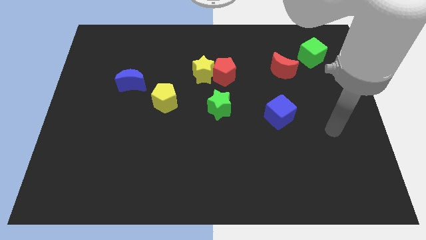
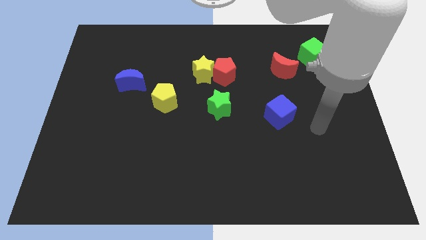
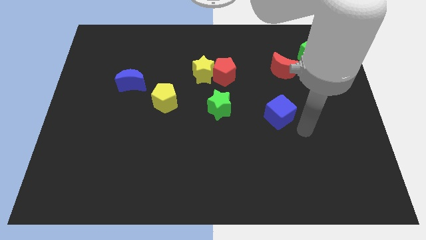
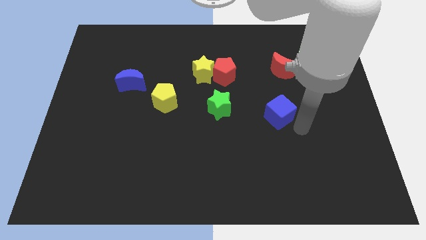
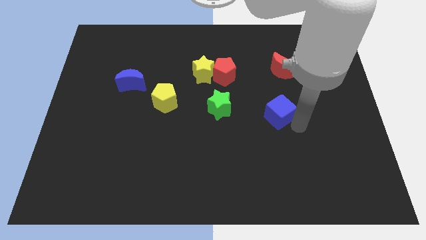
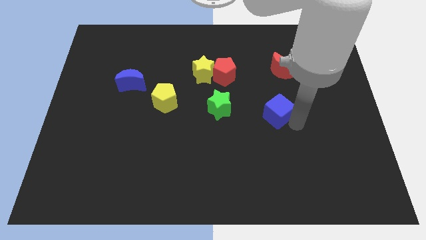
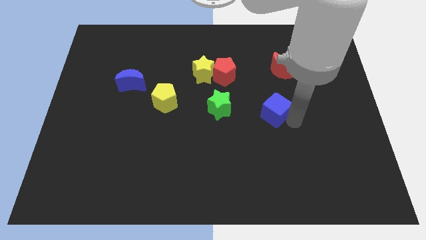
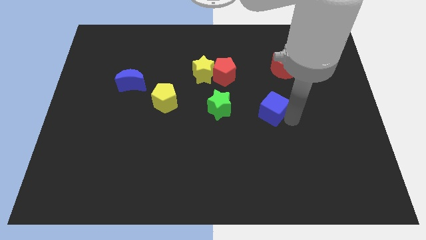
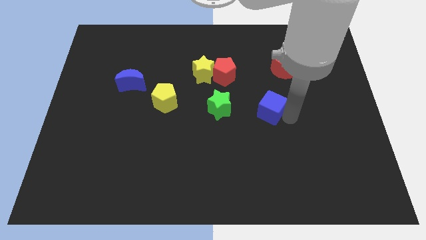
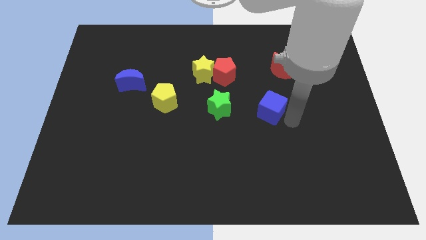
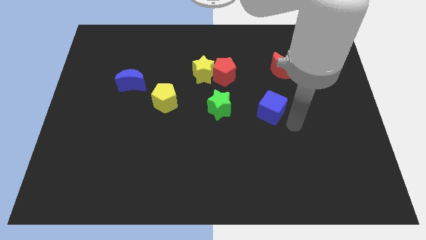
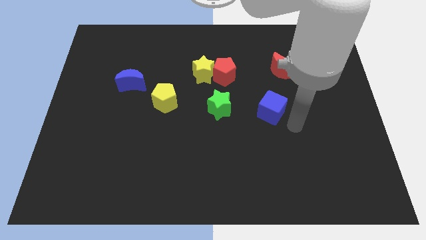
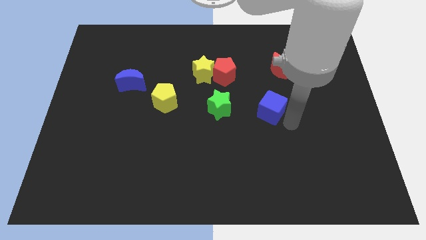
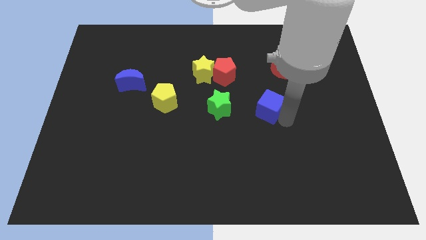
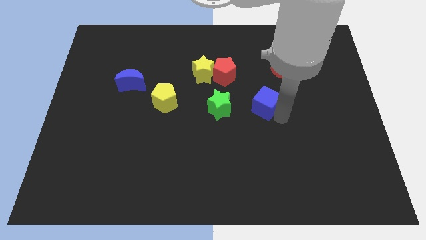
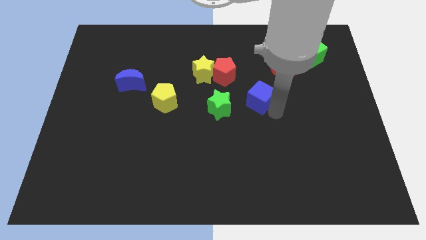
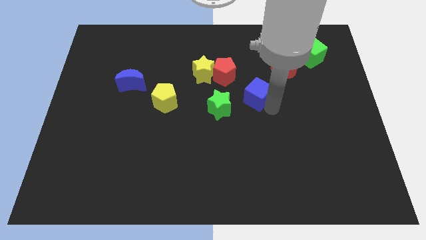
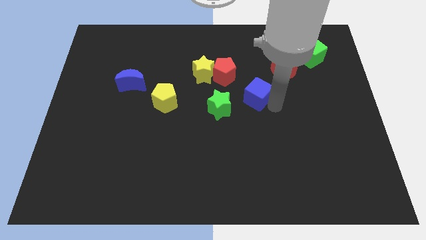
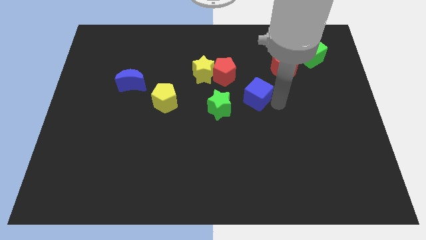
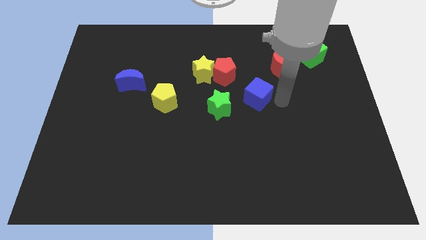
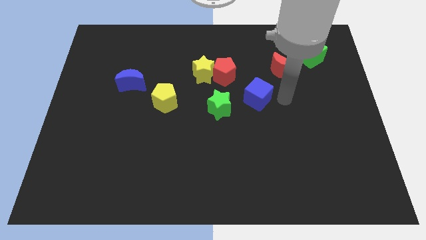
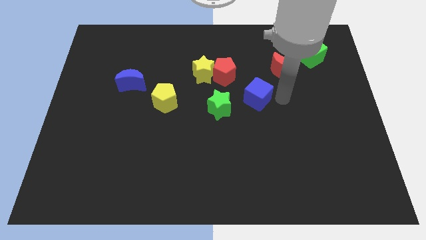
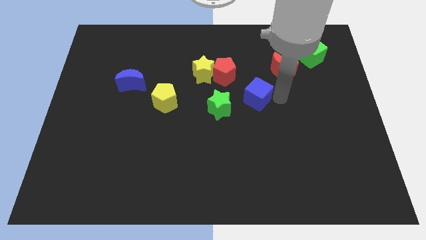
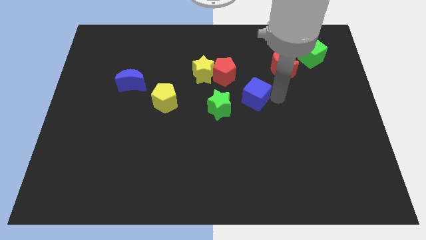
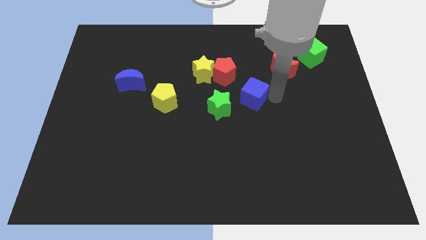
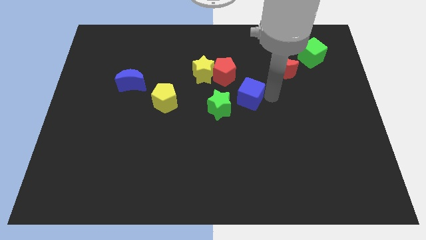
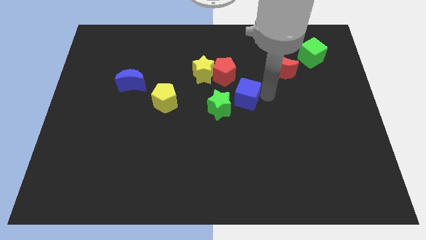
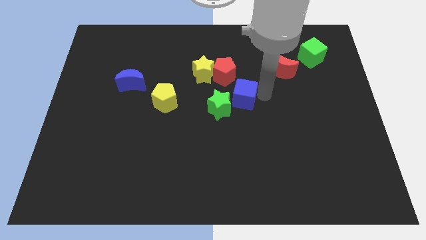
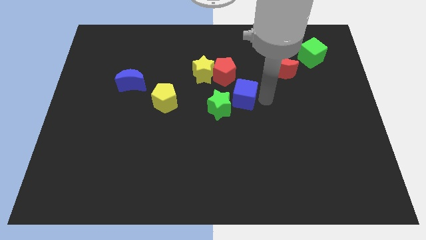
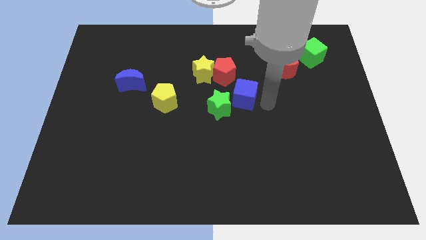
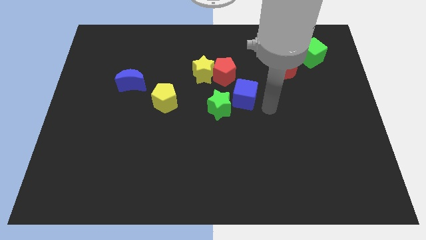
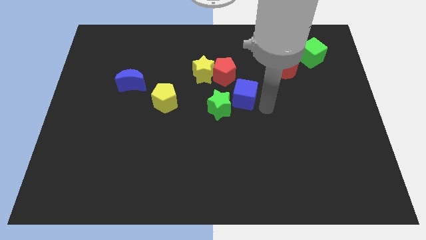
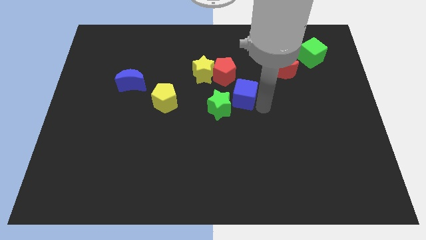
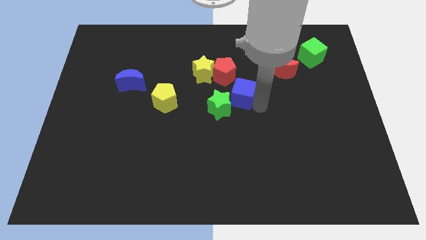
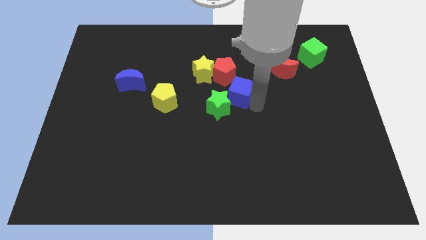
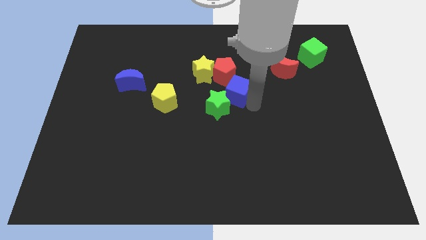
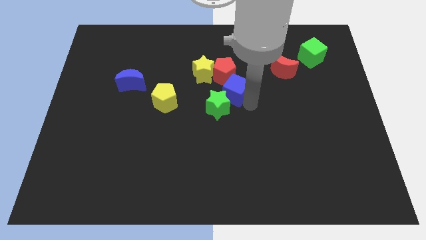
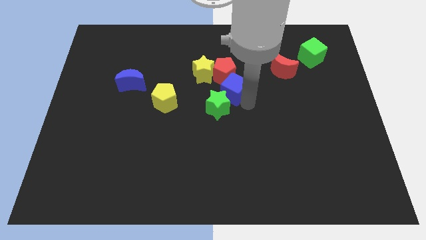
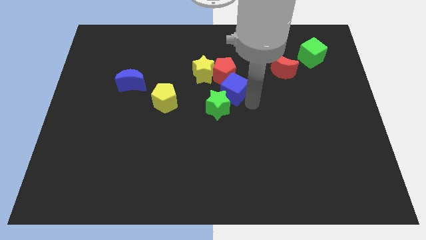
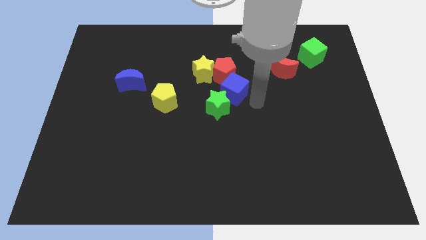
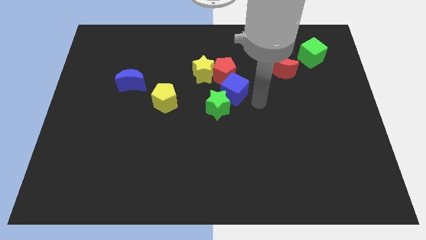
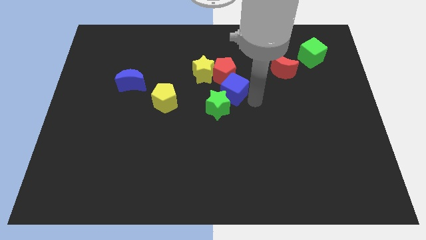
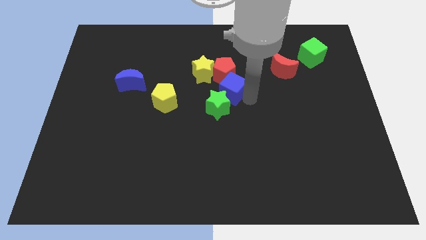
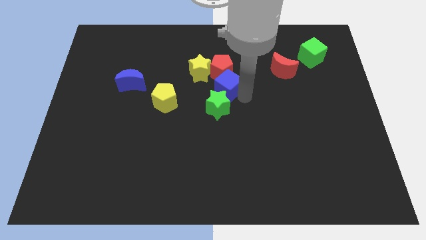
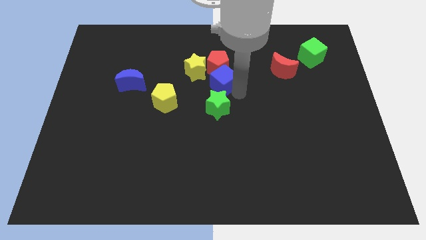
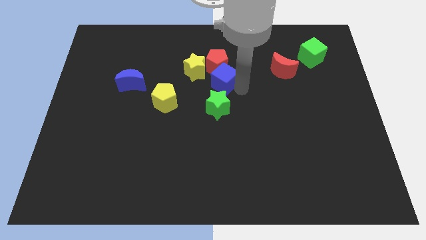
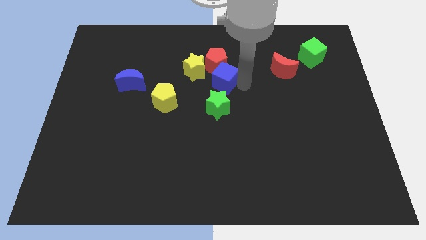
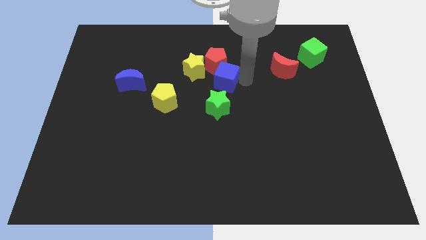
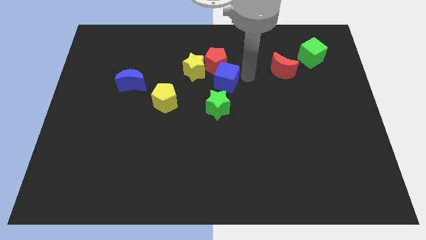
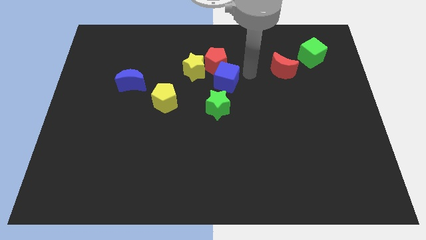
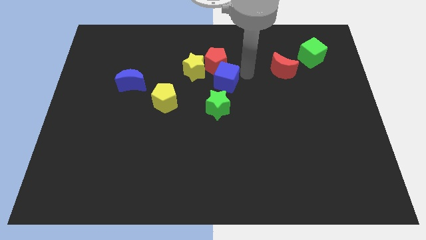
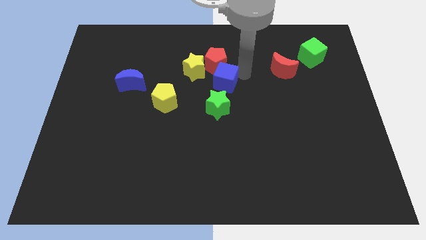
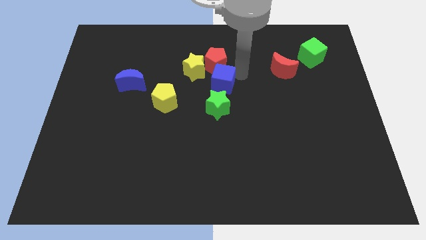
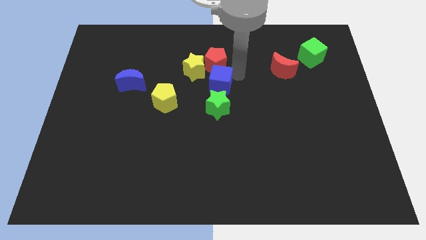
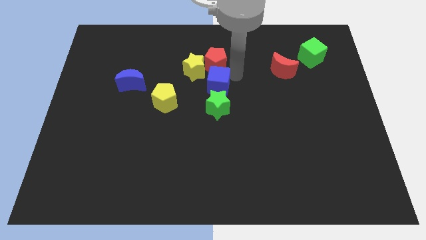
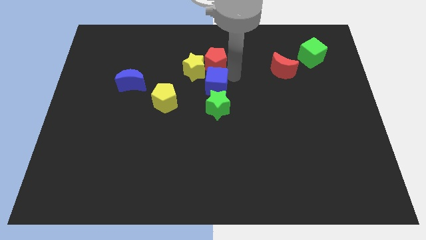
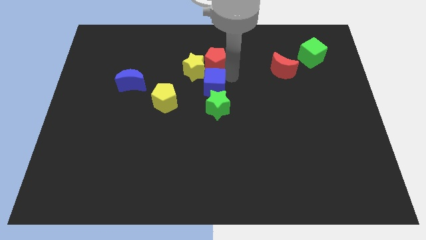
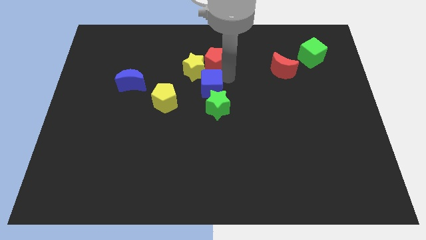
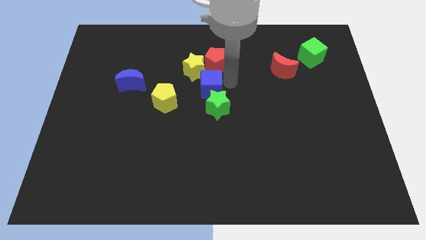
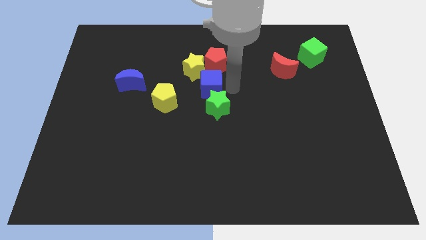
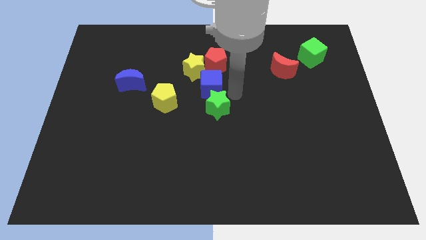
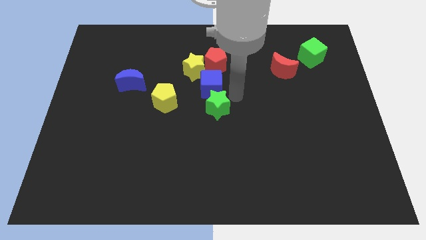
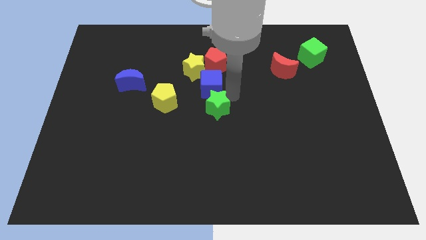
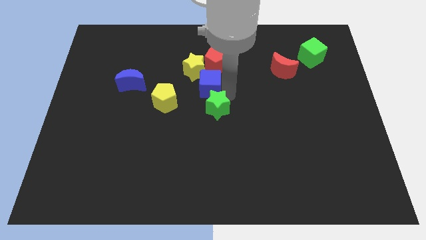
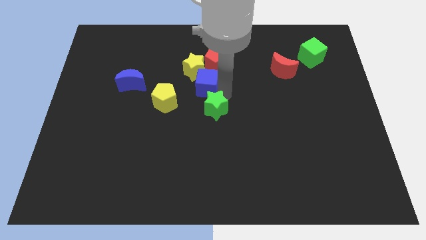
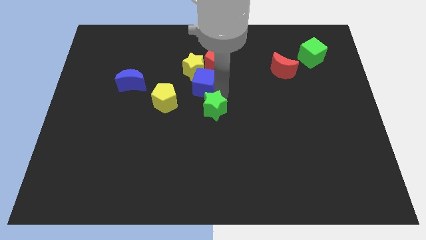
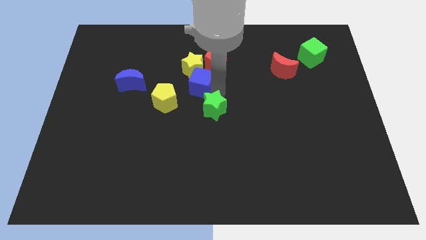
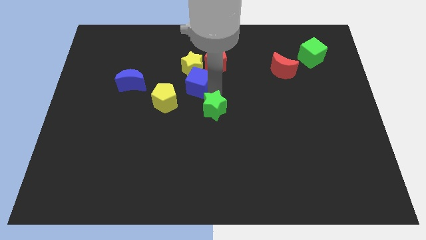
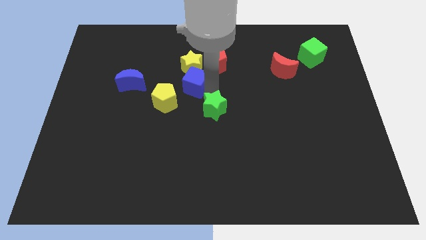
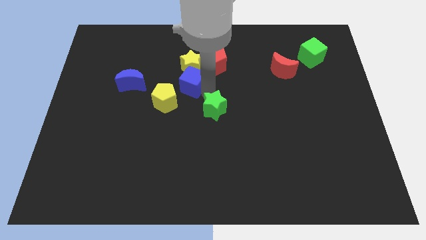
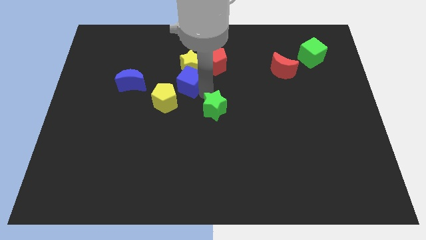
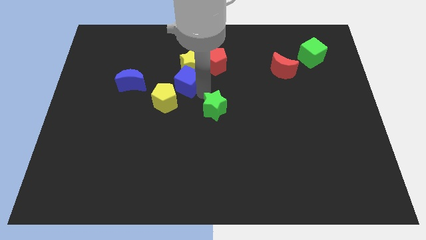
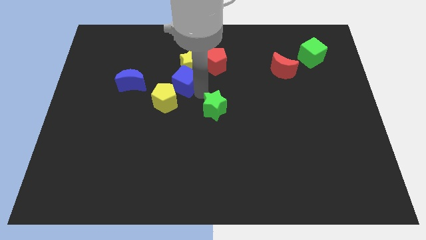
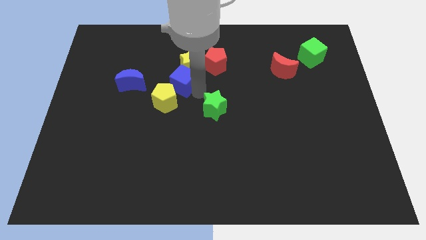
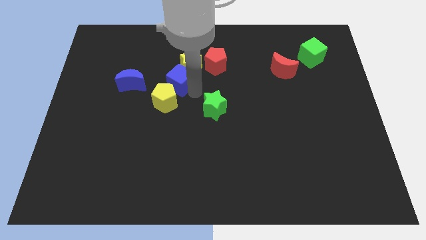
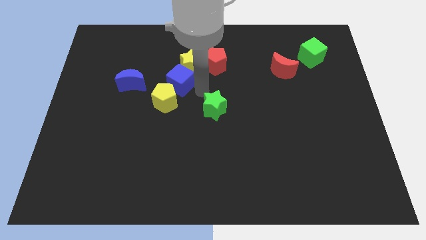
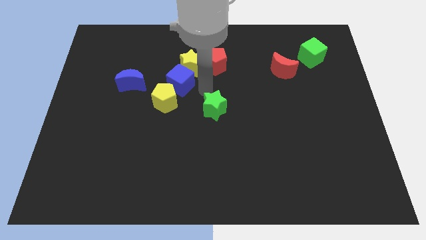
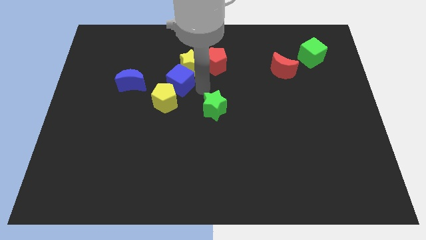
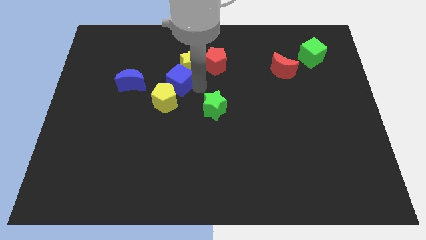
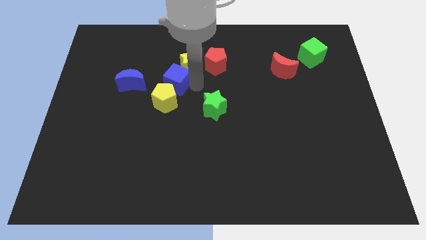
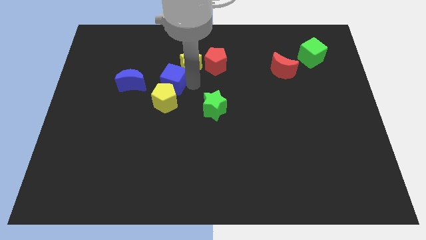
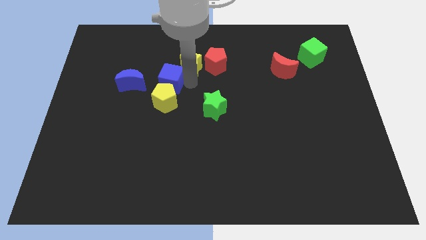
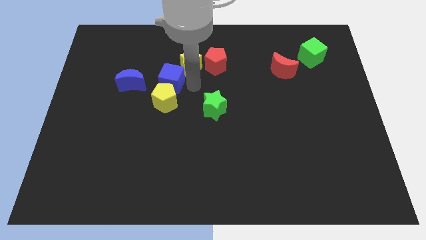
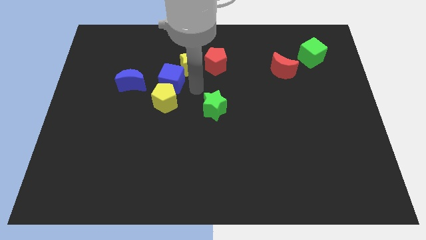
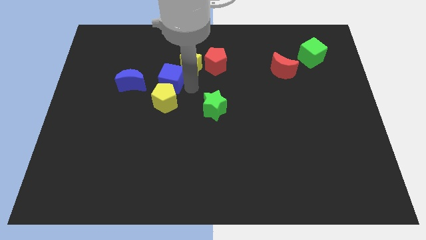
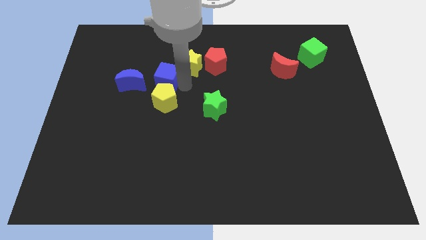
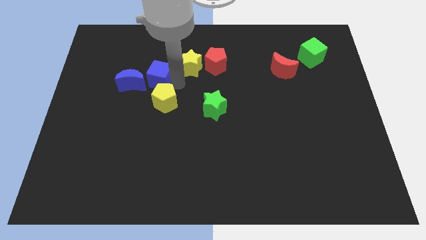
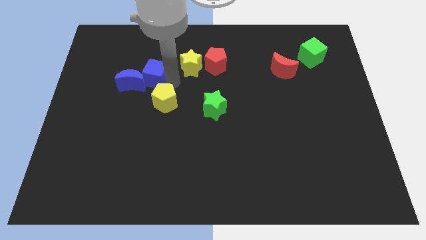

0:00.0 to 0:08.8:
put the blue cube towards the blue moon
